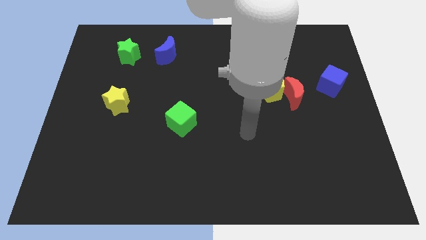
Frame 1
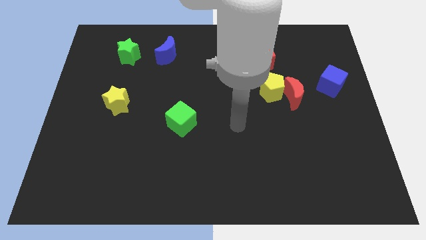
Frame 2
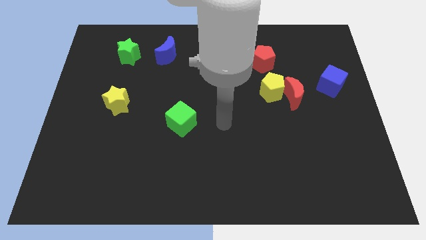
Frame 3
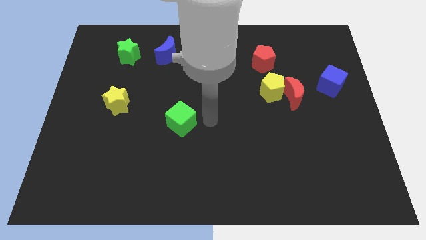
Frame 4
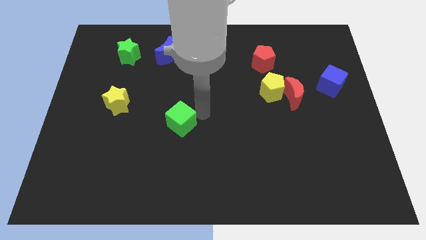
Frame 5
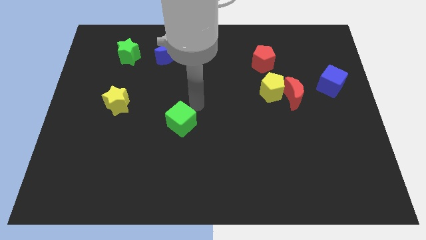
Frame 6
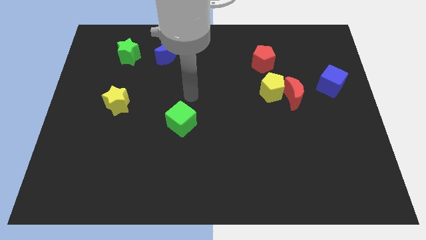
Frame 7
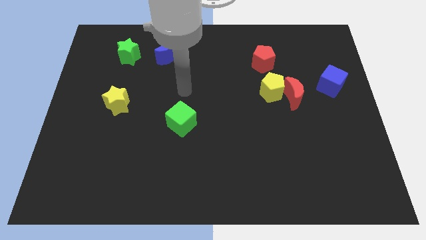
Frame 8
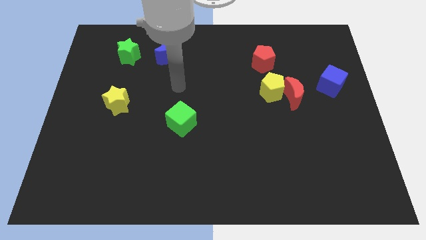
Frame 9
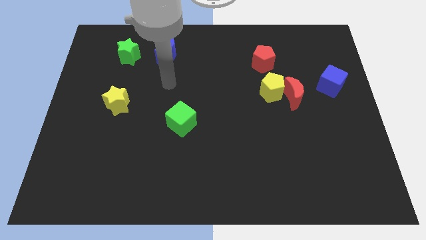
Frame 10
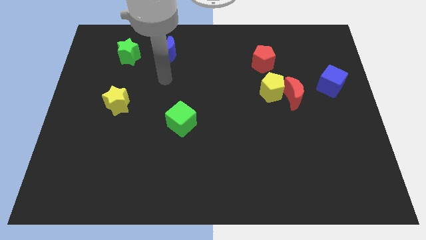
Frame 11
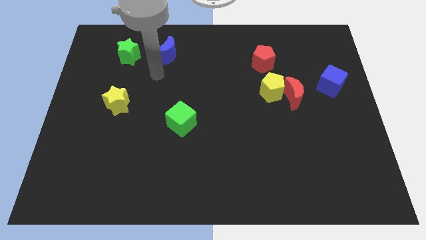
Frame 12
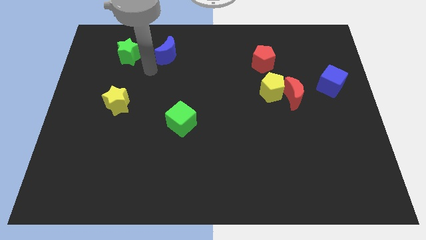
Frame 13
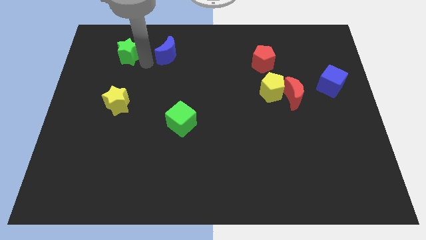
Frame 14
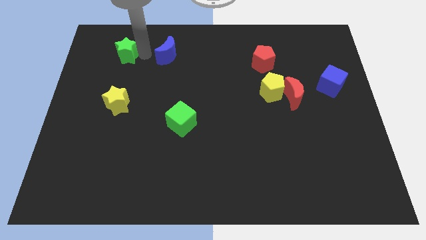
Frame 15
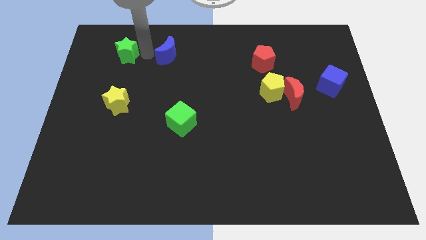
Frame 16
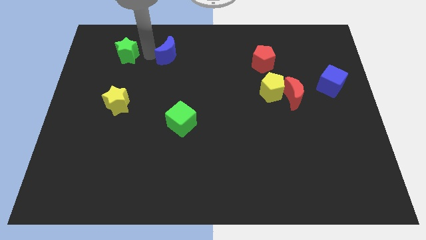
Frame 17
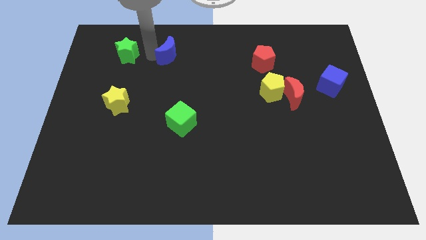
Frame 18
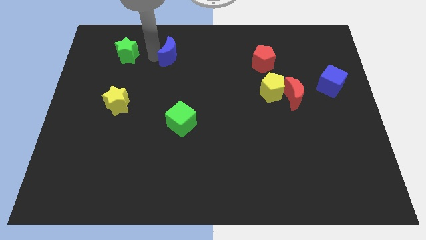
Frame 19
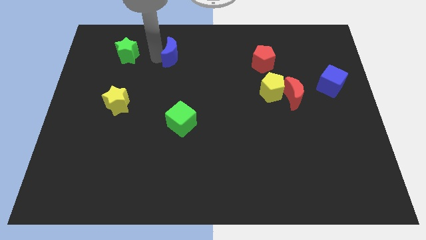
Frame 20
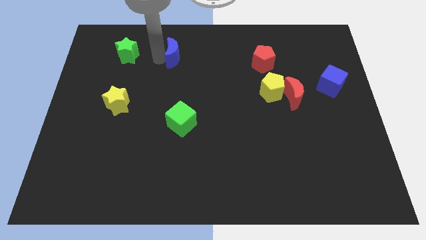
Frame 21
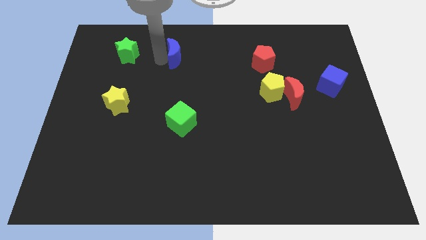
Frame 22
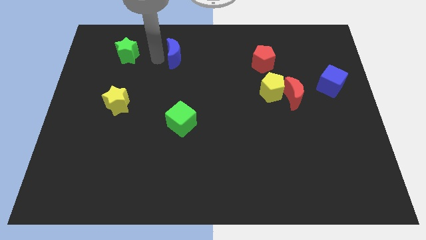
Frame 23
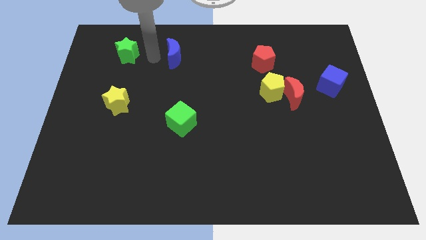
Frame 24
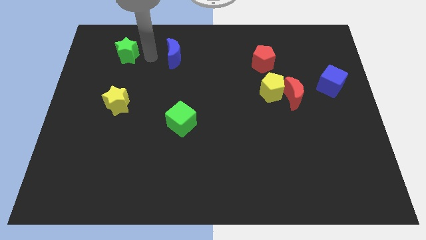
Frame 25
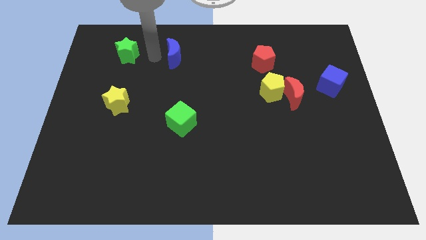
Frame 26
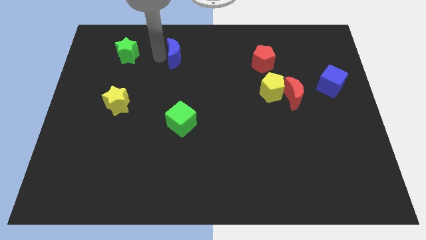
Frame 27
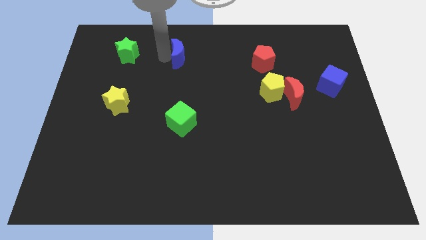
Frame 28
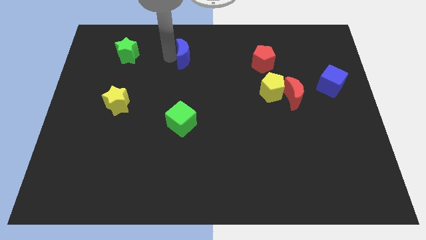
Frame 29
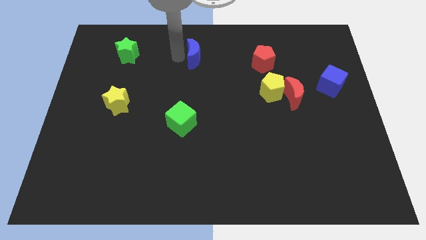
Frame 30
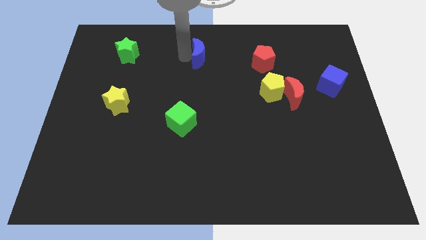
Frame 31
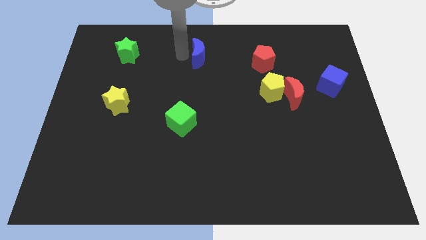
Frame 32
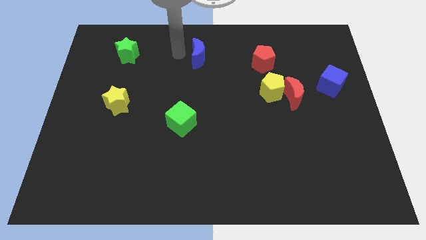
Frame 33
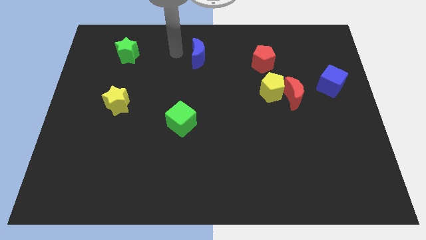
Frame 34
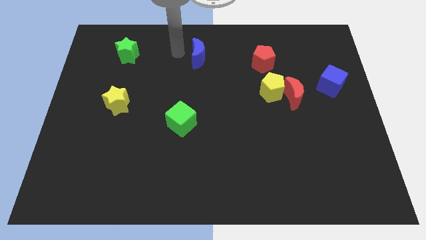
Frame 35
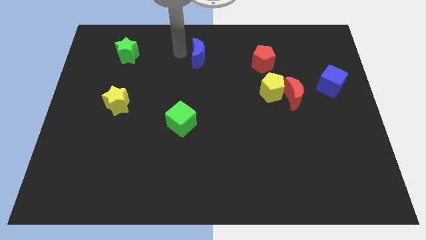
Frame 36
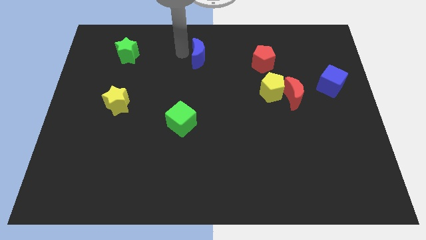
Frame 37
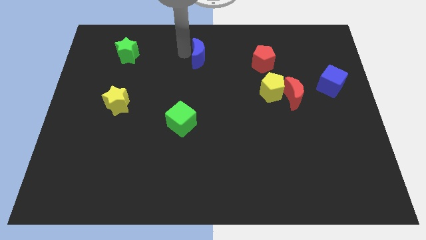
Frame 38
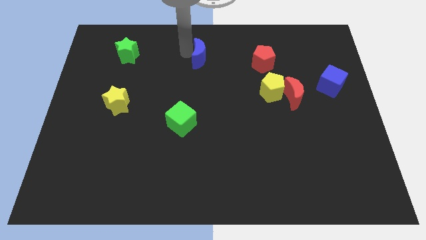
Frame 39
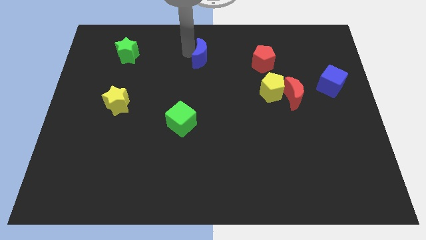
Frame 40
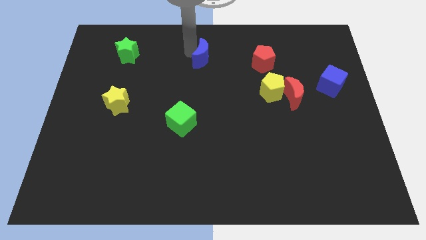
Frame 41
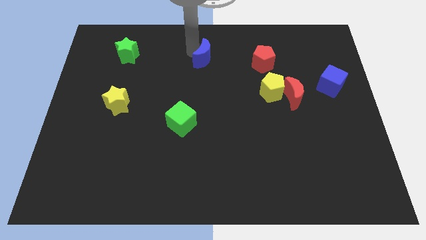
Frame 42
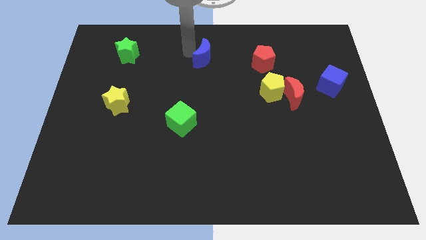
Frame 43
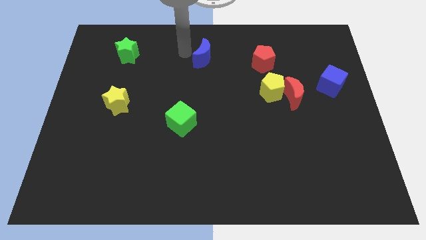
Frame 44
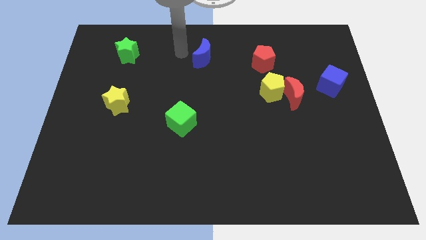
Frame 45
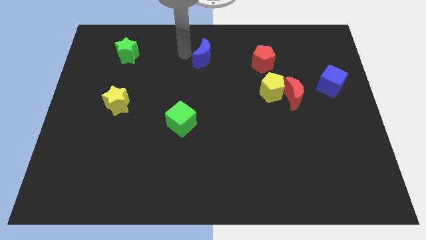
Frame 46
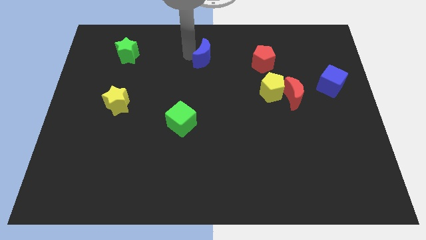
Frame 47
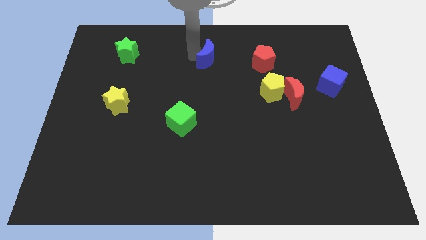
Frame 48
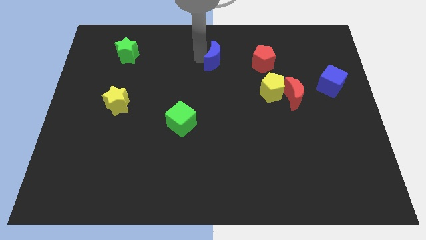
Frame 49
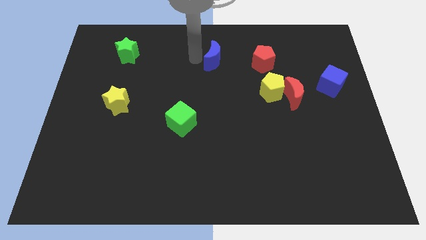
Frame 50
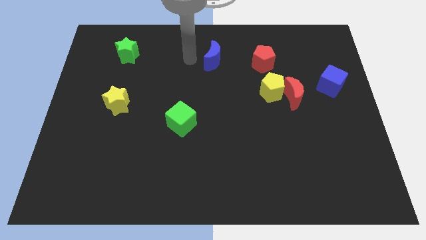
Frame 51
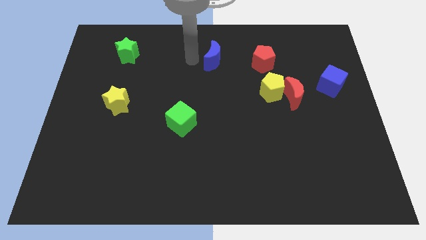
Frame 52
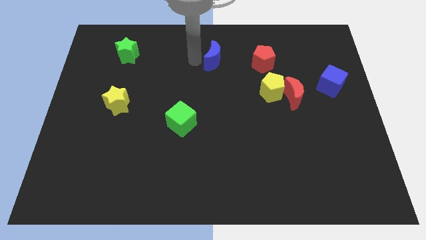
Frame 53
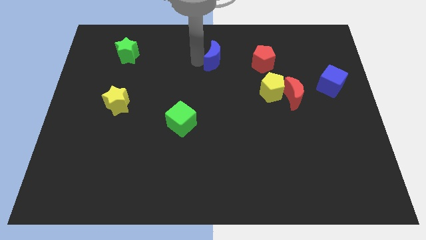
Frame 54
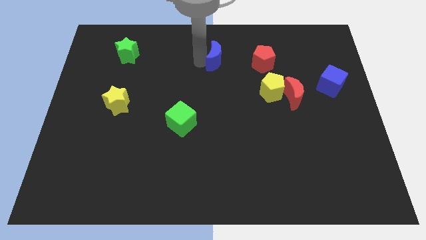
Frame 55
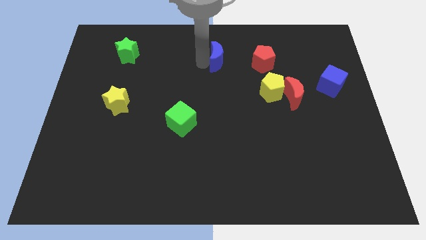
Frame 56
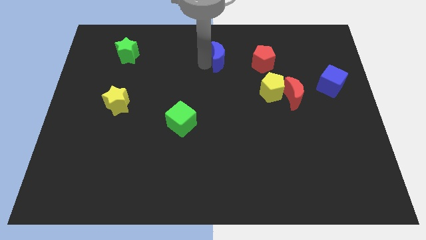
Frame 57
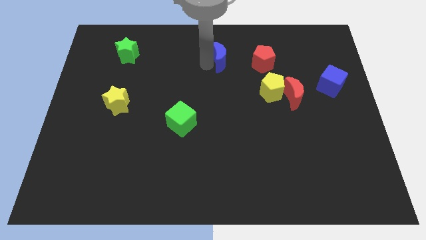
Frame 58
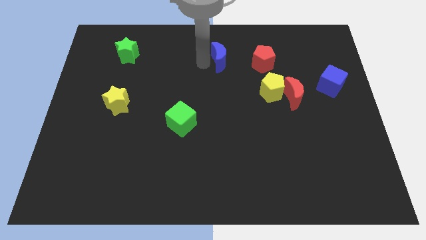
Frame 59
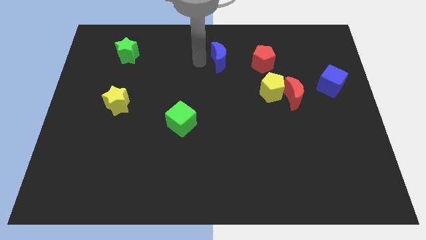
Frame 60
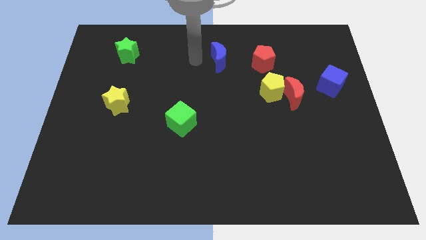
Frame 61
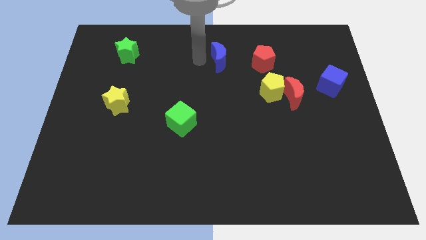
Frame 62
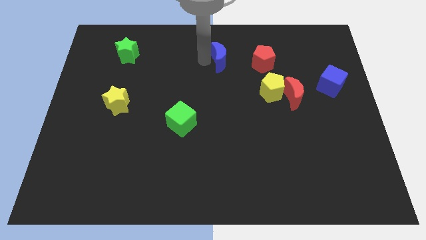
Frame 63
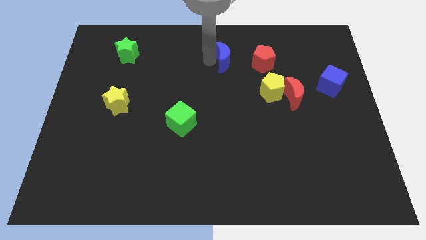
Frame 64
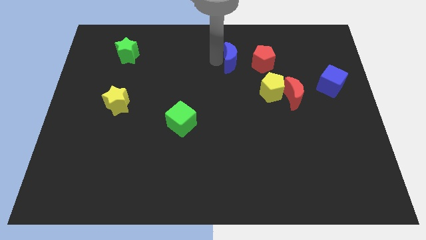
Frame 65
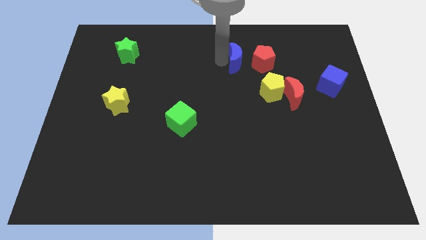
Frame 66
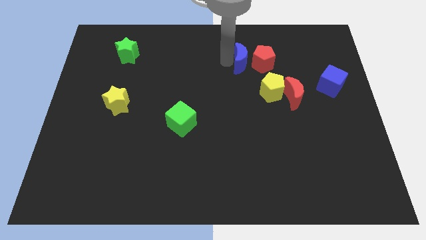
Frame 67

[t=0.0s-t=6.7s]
put the blue moon next to the red pentagon

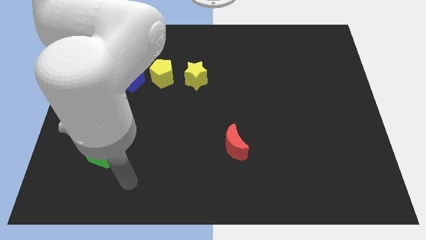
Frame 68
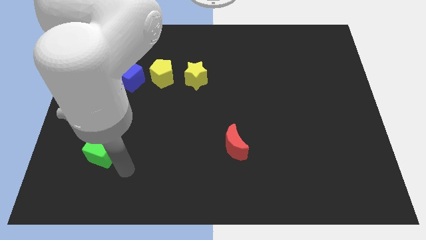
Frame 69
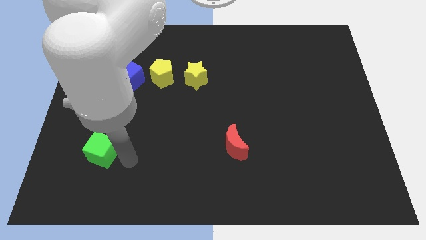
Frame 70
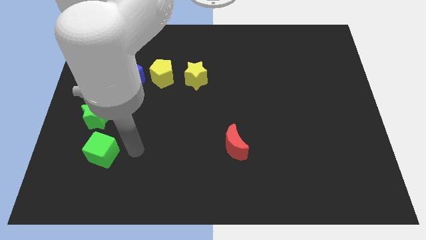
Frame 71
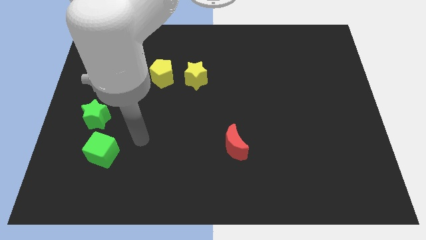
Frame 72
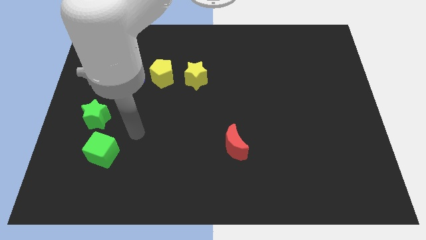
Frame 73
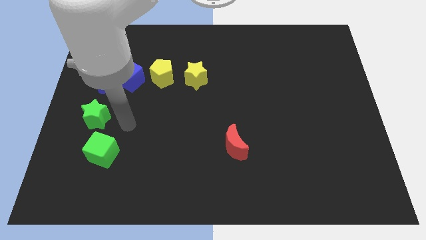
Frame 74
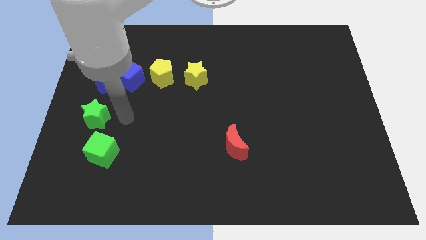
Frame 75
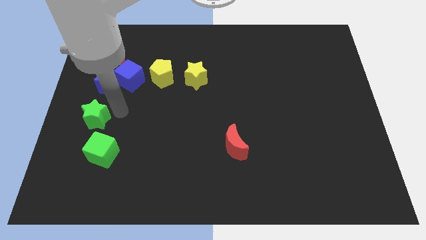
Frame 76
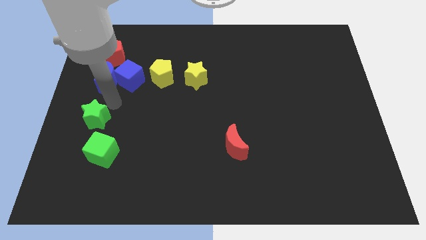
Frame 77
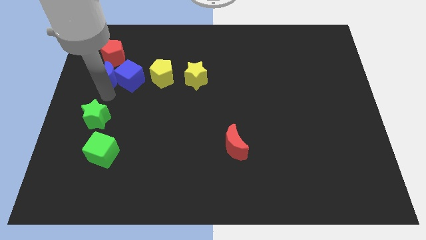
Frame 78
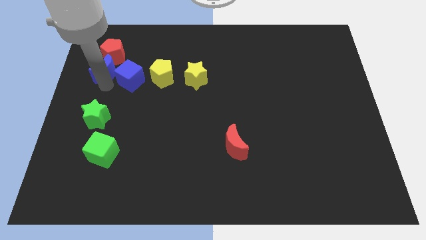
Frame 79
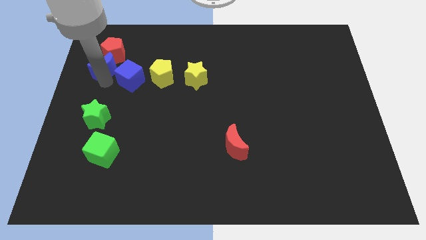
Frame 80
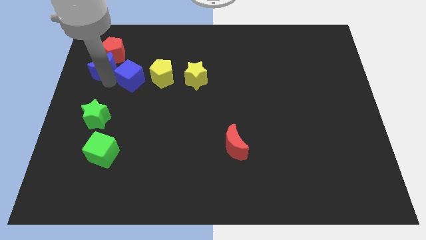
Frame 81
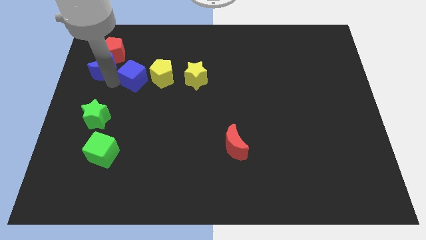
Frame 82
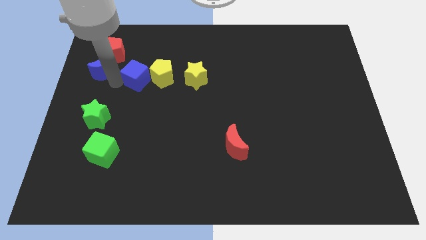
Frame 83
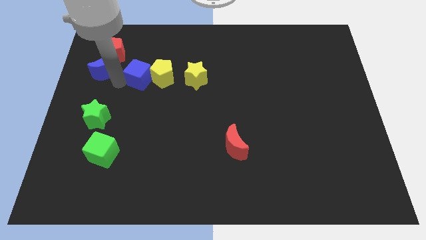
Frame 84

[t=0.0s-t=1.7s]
put the blue cube to the yellow pentagon
